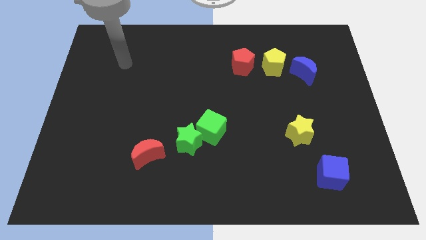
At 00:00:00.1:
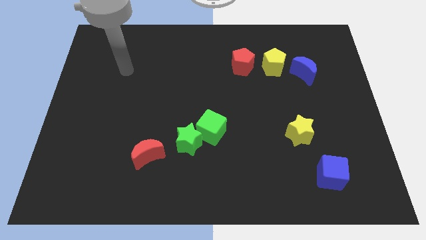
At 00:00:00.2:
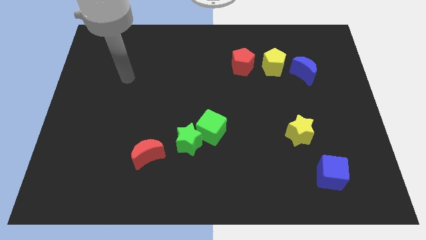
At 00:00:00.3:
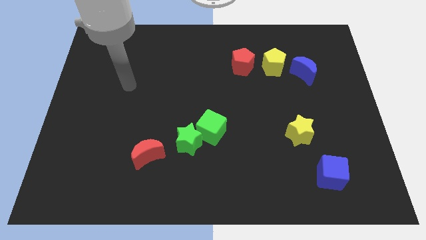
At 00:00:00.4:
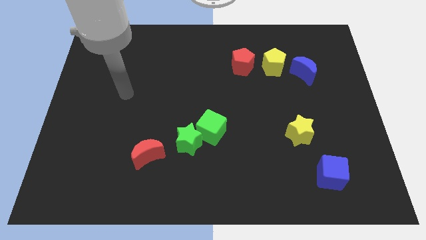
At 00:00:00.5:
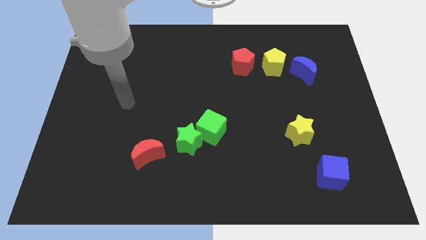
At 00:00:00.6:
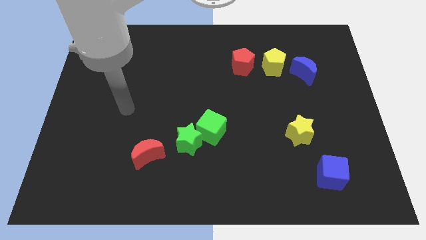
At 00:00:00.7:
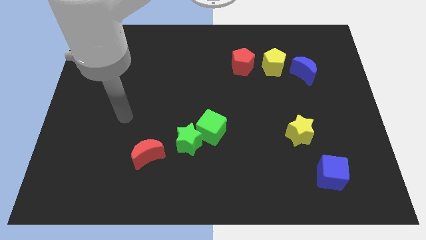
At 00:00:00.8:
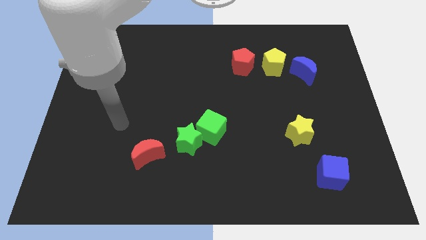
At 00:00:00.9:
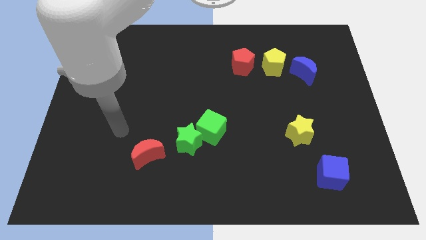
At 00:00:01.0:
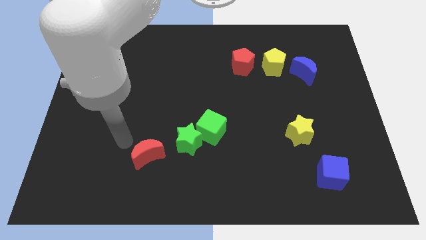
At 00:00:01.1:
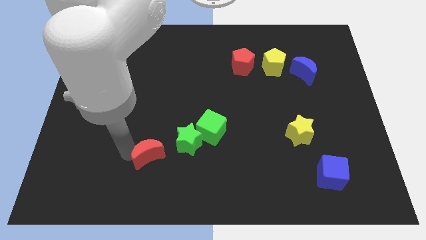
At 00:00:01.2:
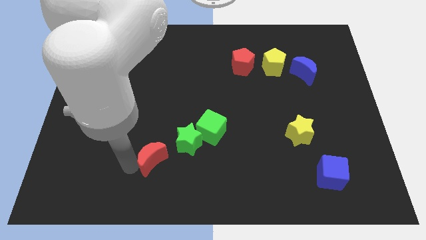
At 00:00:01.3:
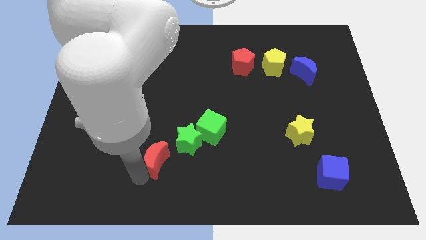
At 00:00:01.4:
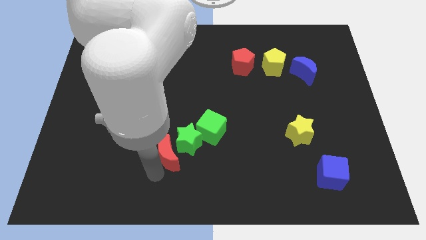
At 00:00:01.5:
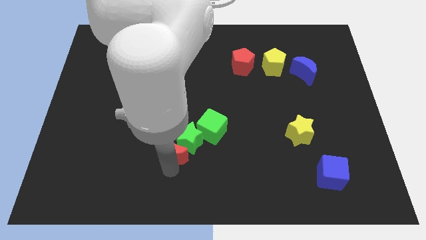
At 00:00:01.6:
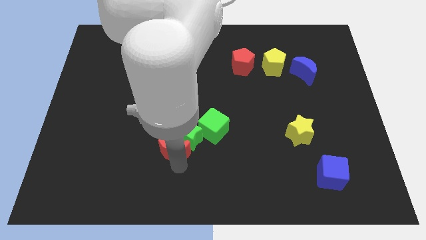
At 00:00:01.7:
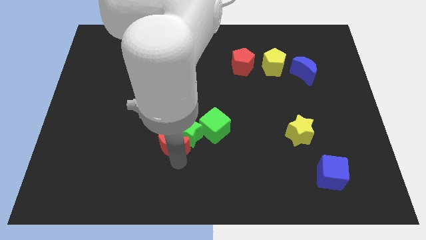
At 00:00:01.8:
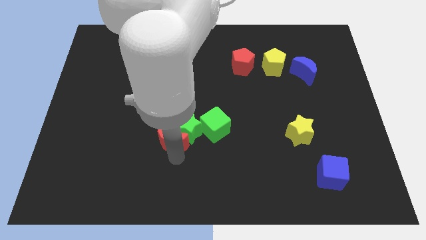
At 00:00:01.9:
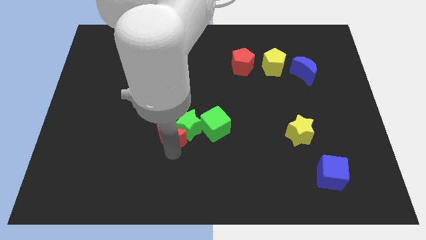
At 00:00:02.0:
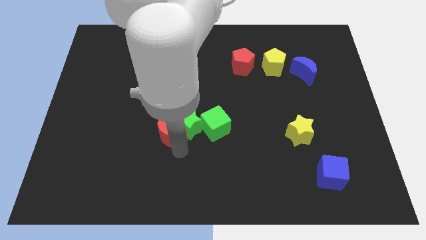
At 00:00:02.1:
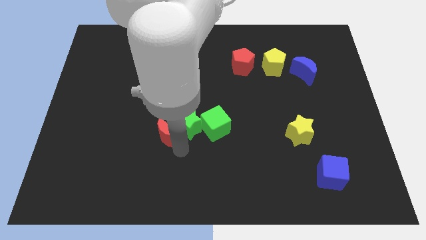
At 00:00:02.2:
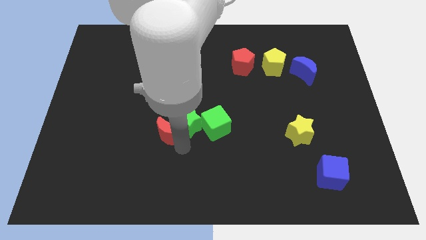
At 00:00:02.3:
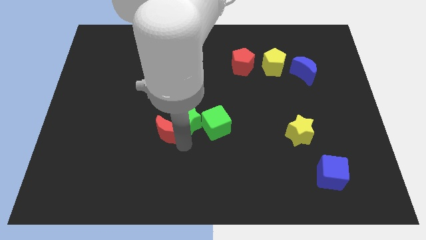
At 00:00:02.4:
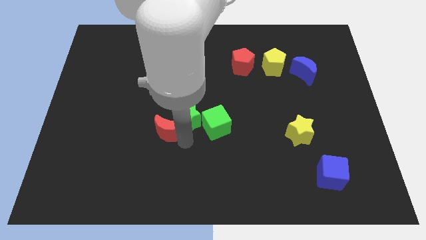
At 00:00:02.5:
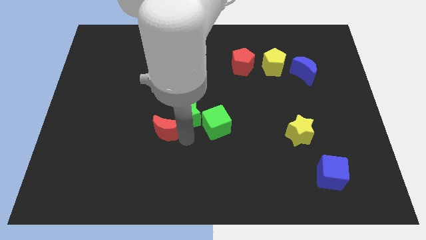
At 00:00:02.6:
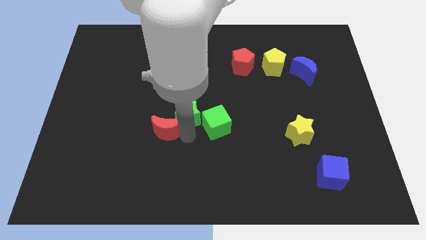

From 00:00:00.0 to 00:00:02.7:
slide the green star slightly upwards

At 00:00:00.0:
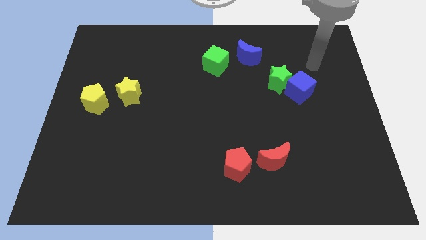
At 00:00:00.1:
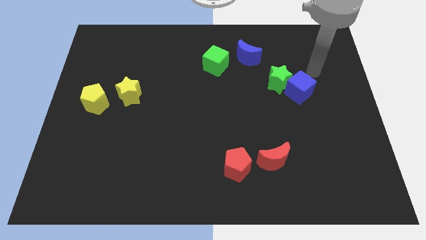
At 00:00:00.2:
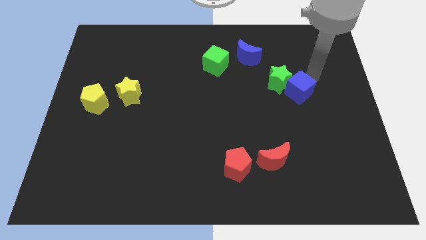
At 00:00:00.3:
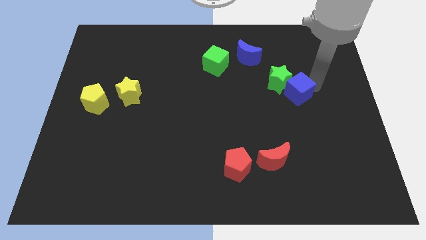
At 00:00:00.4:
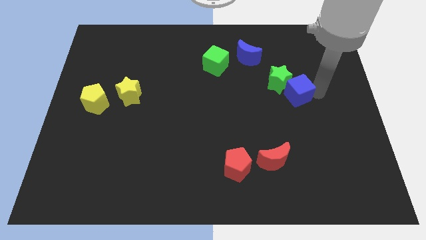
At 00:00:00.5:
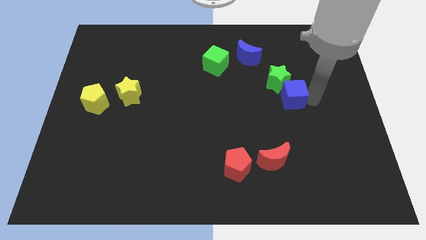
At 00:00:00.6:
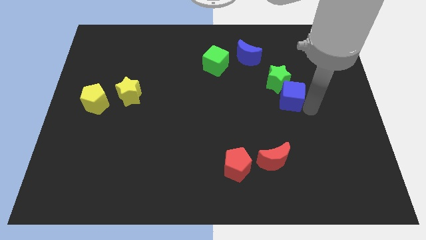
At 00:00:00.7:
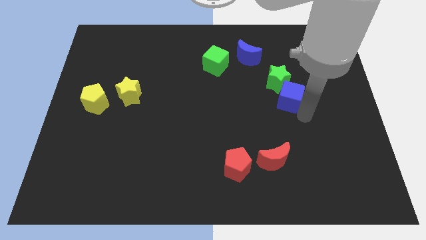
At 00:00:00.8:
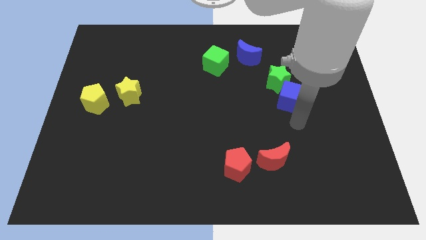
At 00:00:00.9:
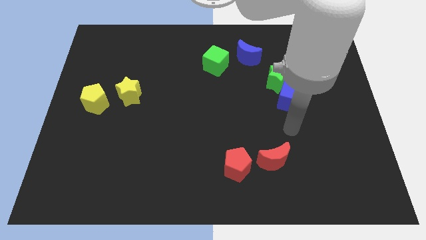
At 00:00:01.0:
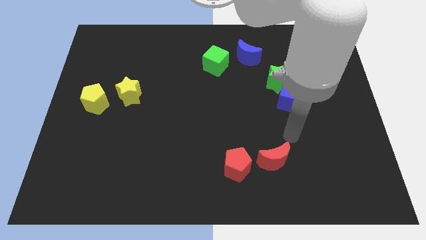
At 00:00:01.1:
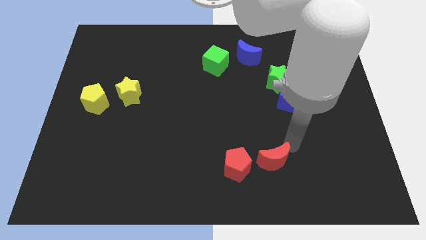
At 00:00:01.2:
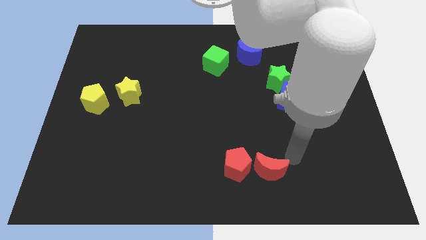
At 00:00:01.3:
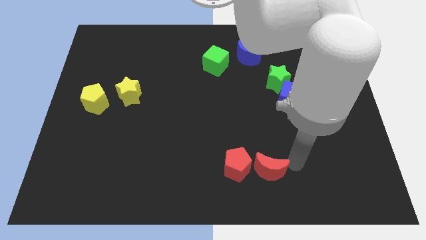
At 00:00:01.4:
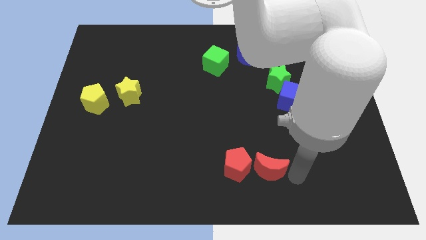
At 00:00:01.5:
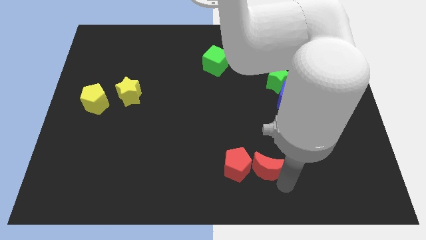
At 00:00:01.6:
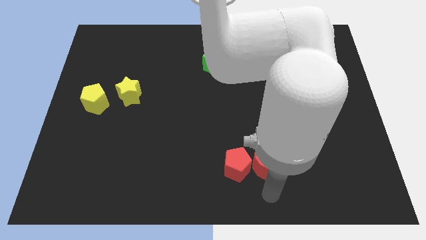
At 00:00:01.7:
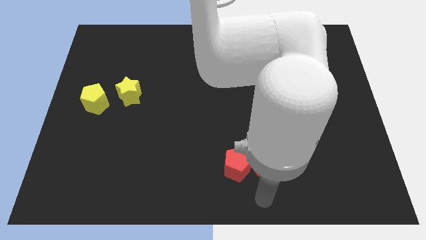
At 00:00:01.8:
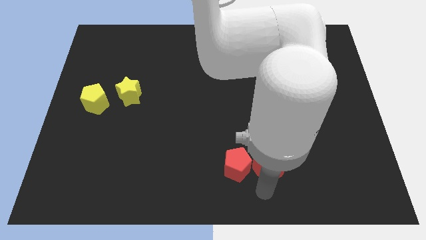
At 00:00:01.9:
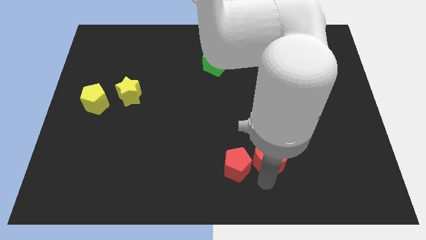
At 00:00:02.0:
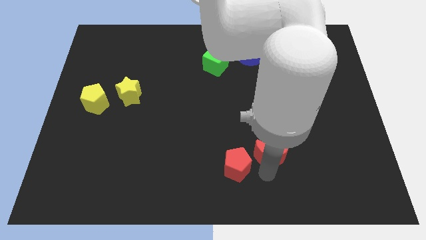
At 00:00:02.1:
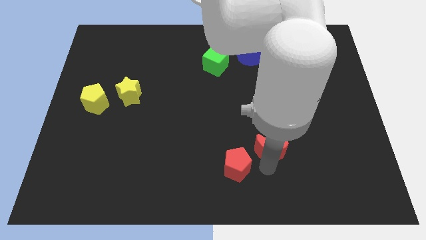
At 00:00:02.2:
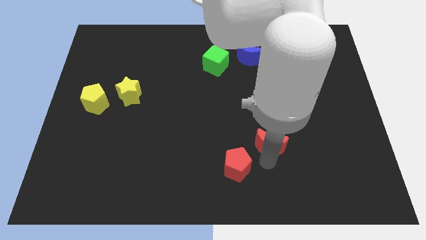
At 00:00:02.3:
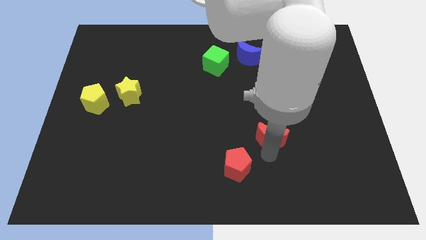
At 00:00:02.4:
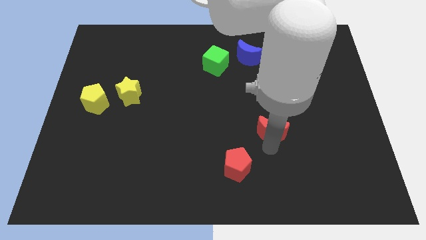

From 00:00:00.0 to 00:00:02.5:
slide the red moon slightly up

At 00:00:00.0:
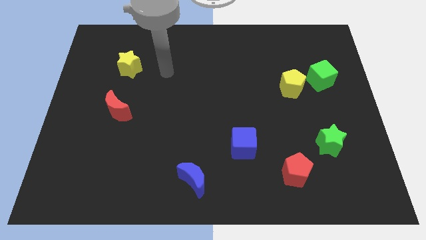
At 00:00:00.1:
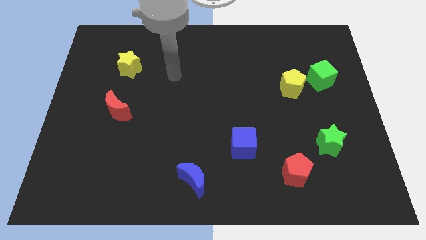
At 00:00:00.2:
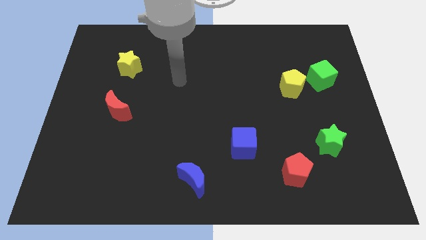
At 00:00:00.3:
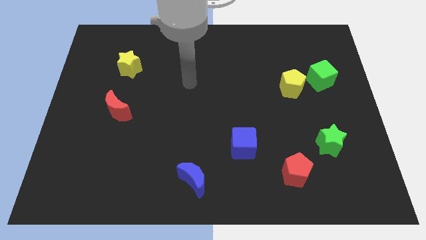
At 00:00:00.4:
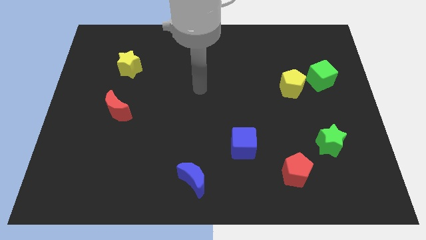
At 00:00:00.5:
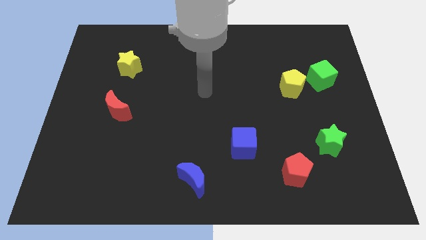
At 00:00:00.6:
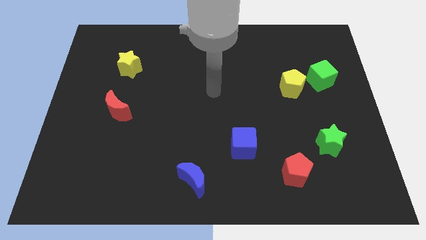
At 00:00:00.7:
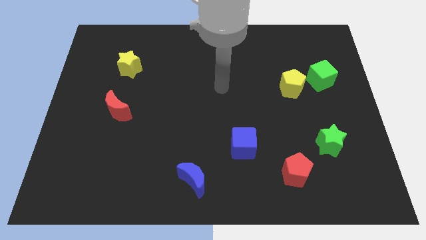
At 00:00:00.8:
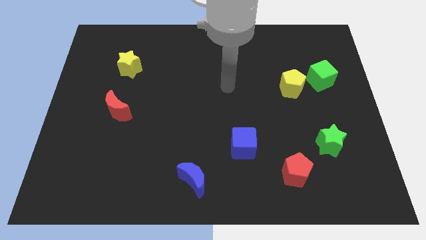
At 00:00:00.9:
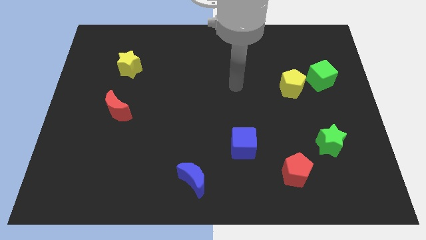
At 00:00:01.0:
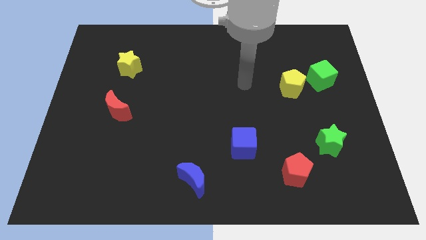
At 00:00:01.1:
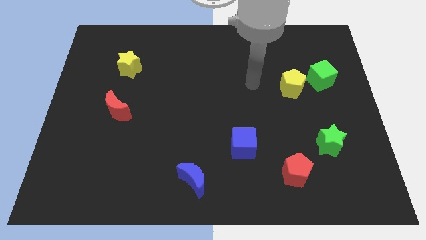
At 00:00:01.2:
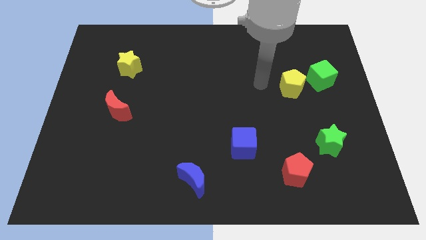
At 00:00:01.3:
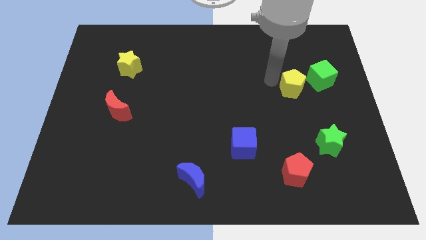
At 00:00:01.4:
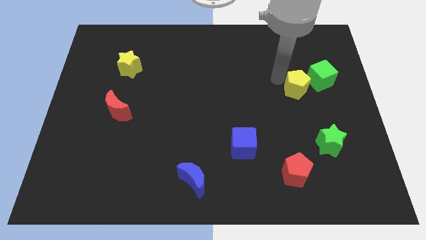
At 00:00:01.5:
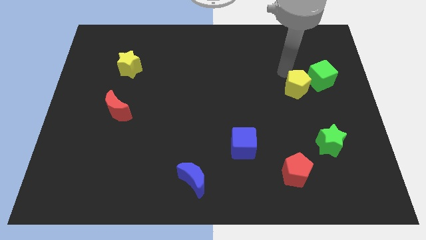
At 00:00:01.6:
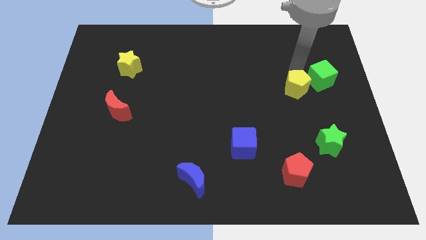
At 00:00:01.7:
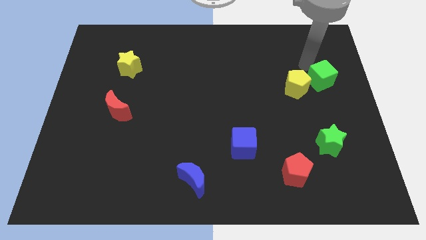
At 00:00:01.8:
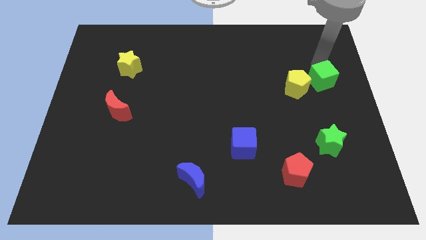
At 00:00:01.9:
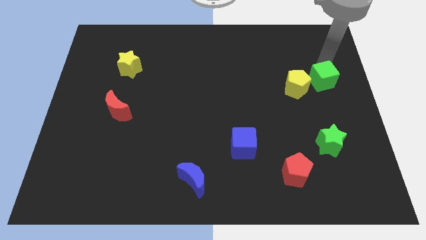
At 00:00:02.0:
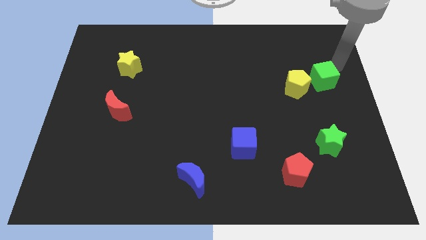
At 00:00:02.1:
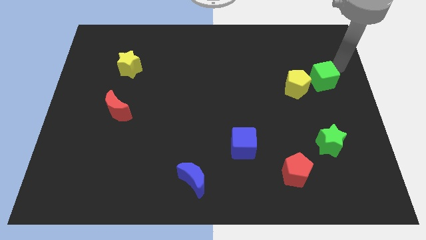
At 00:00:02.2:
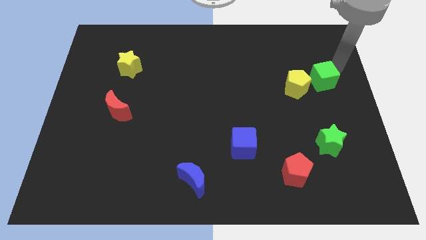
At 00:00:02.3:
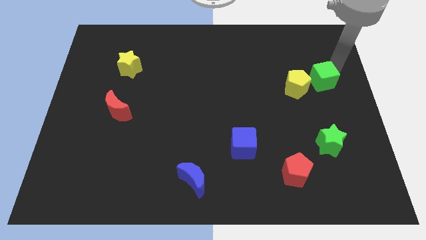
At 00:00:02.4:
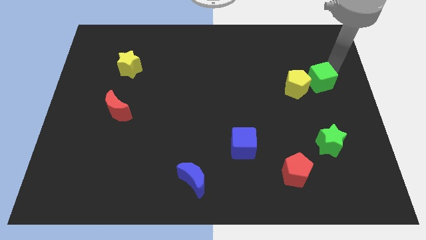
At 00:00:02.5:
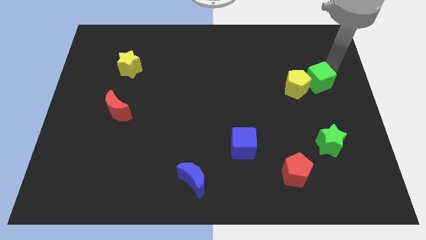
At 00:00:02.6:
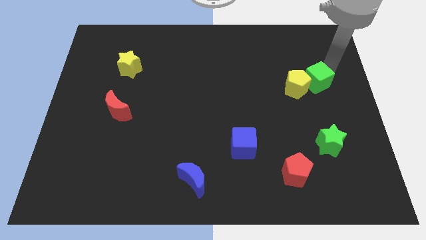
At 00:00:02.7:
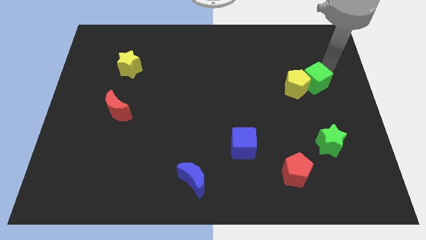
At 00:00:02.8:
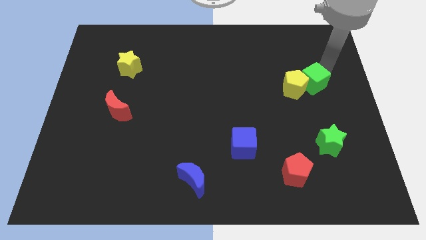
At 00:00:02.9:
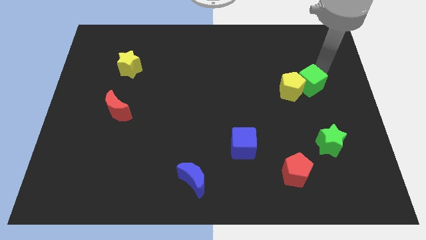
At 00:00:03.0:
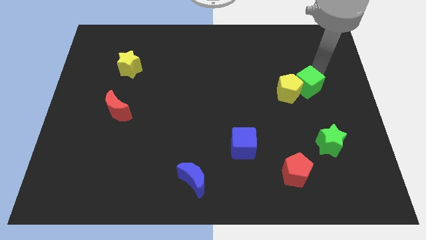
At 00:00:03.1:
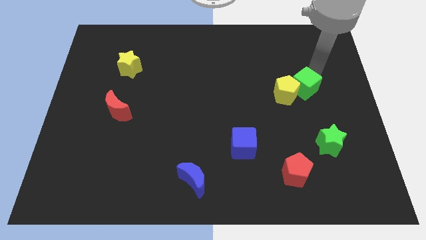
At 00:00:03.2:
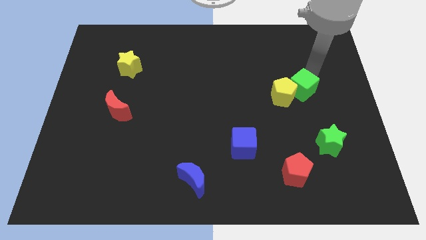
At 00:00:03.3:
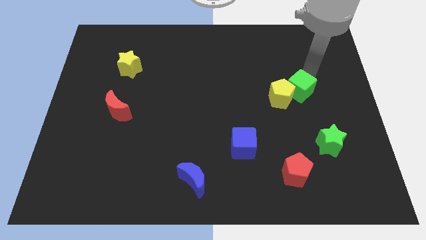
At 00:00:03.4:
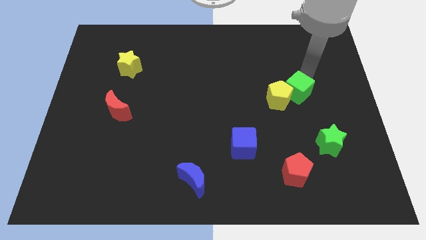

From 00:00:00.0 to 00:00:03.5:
slightly move the green cube downwards and to the left diagonally
